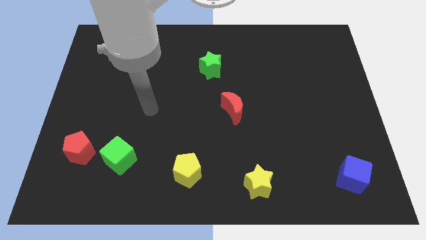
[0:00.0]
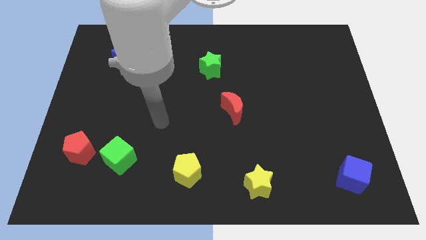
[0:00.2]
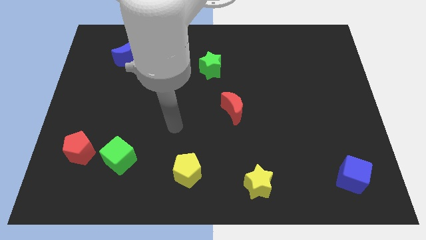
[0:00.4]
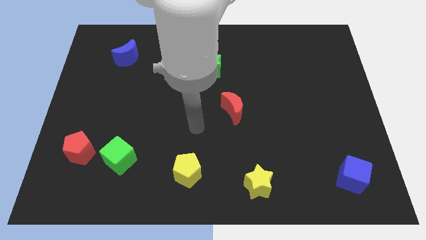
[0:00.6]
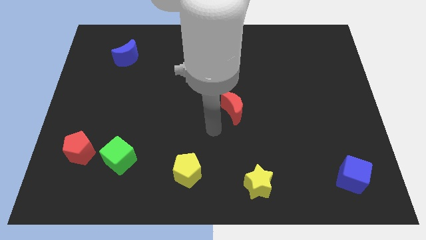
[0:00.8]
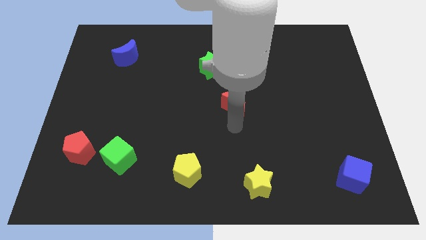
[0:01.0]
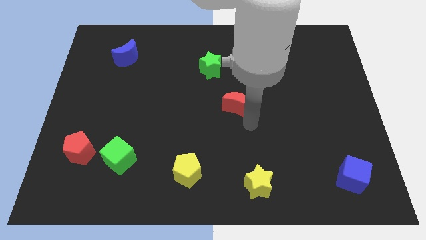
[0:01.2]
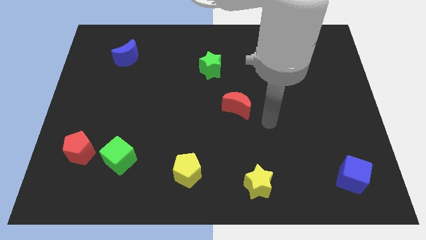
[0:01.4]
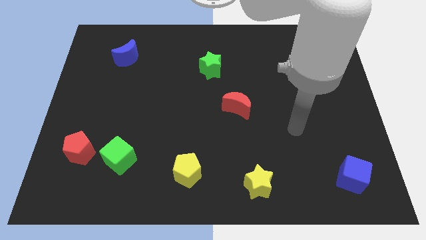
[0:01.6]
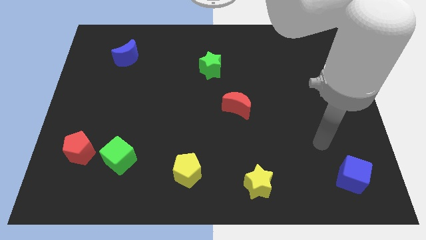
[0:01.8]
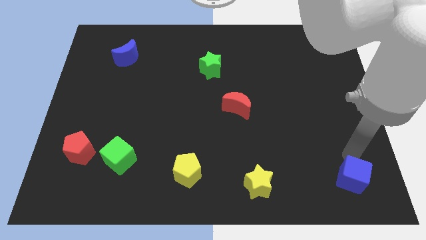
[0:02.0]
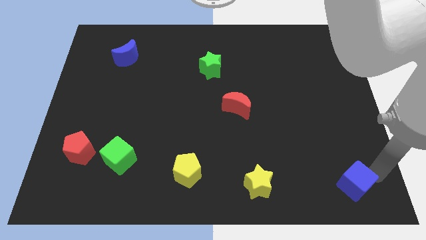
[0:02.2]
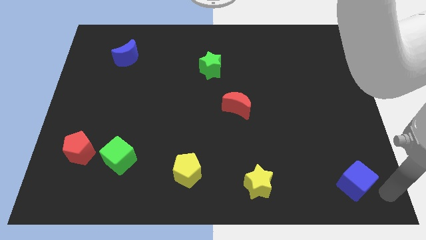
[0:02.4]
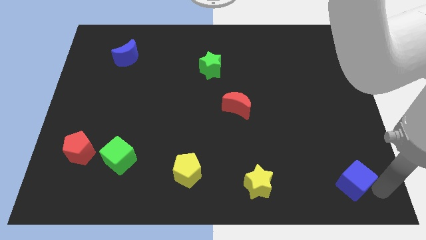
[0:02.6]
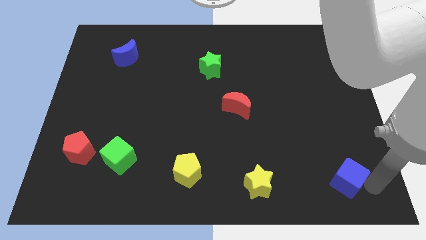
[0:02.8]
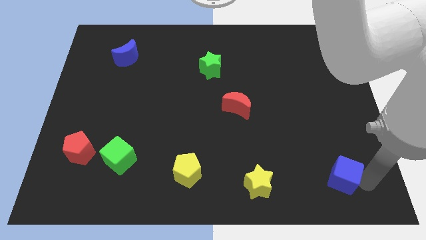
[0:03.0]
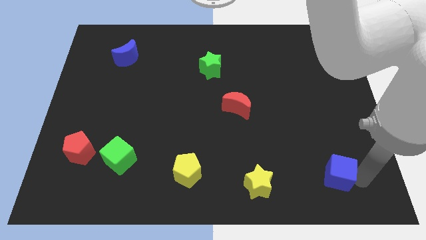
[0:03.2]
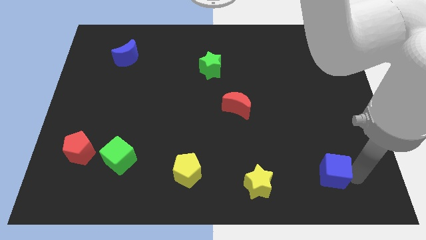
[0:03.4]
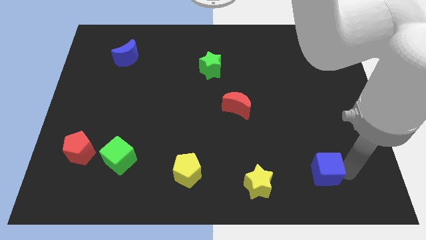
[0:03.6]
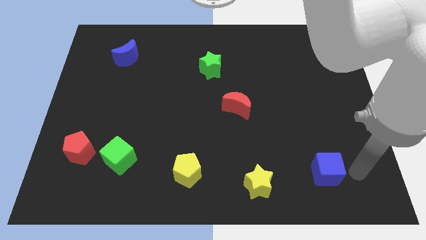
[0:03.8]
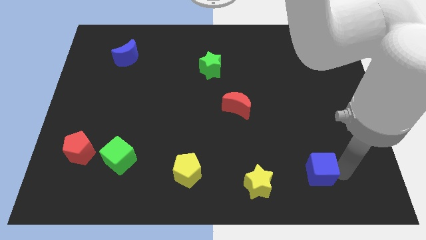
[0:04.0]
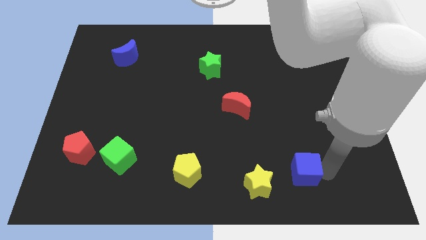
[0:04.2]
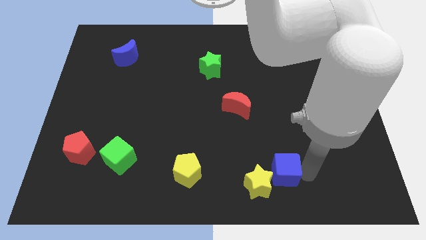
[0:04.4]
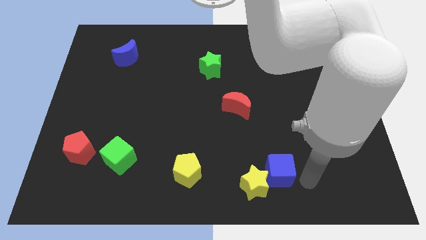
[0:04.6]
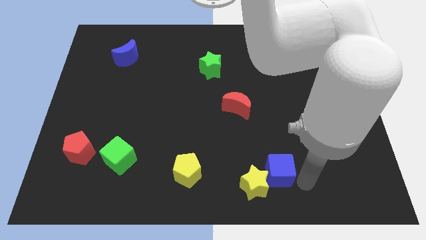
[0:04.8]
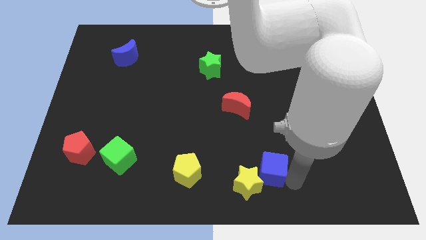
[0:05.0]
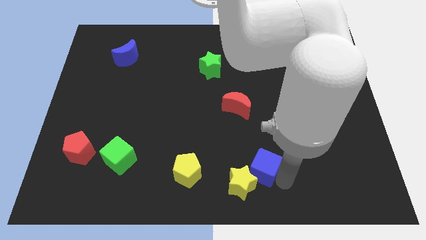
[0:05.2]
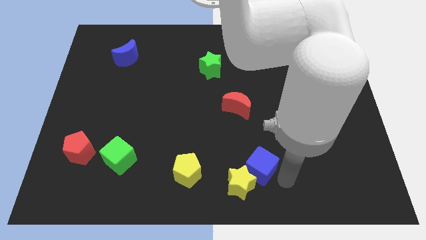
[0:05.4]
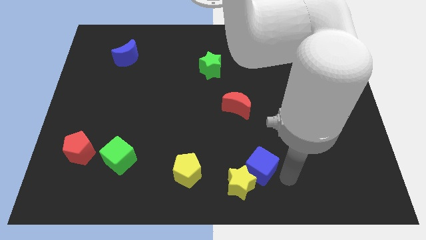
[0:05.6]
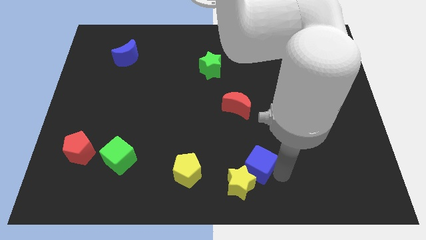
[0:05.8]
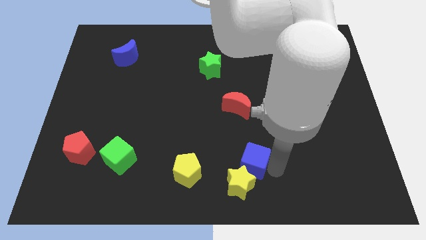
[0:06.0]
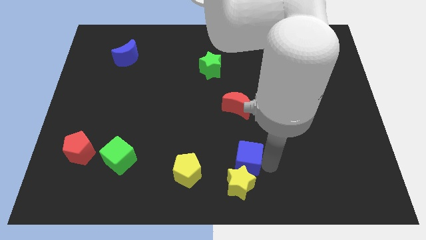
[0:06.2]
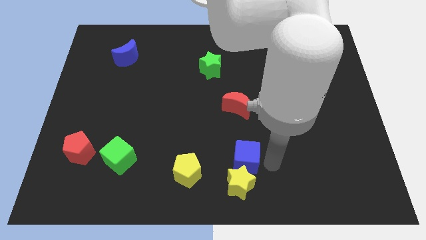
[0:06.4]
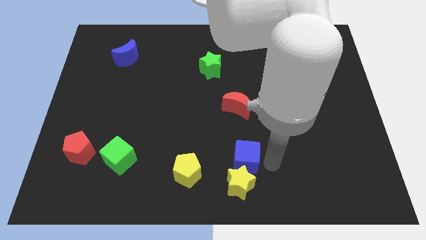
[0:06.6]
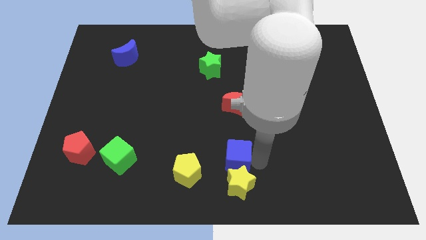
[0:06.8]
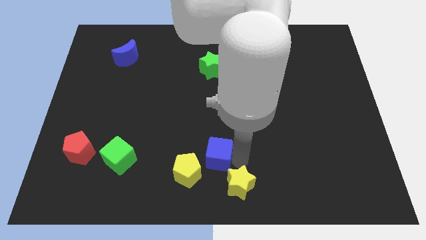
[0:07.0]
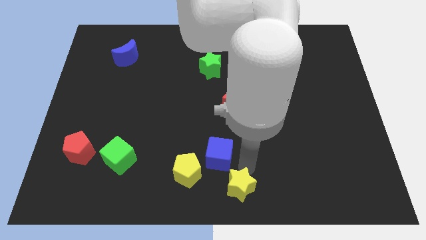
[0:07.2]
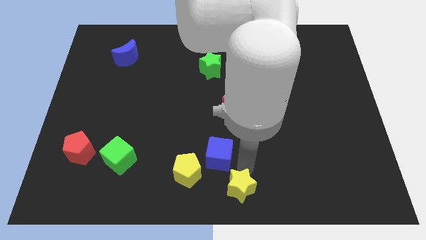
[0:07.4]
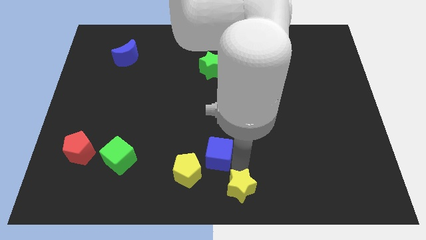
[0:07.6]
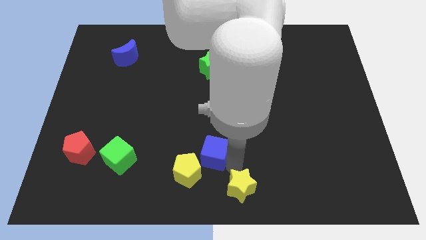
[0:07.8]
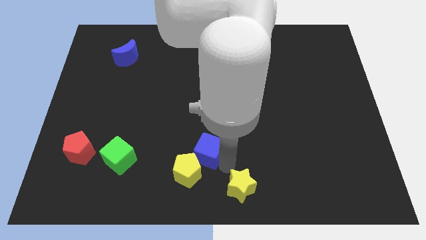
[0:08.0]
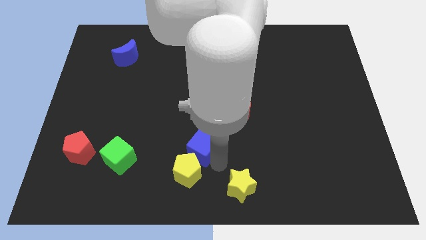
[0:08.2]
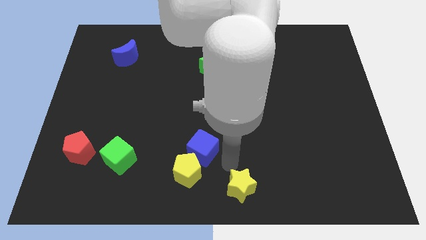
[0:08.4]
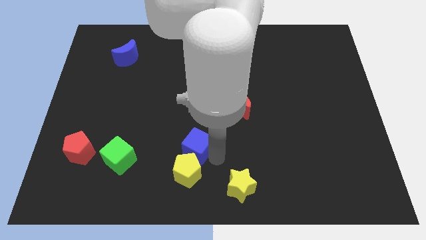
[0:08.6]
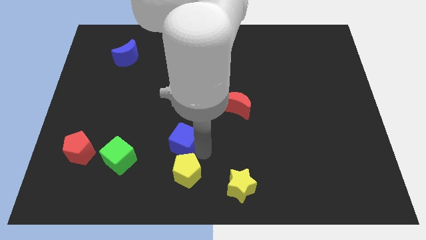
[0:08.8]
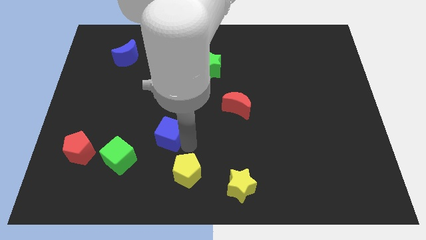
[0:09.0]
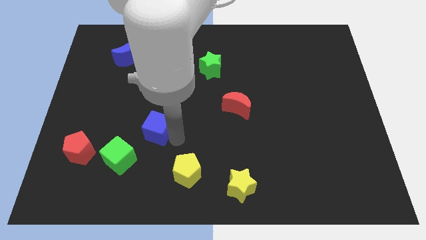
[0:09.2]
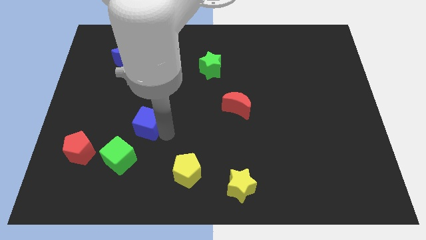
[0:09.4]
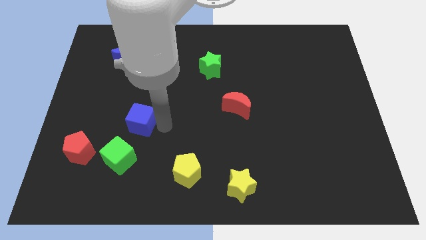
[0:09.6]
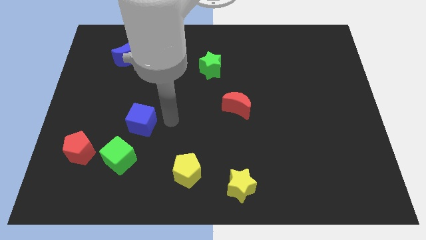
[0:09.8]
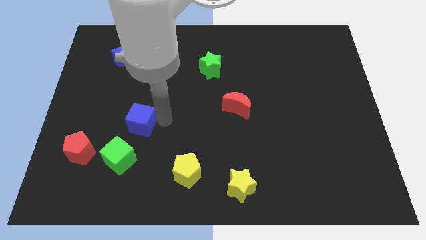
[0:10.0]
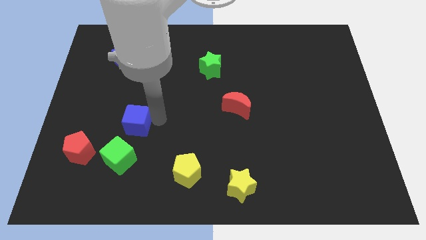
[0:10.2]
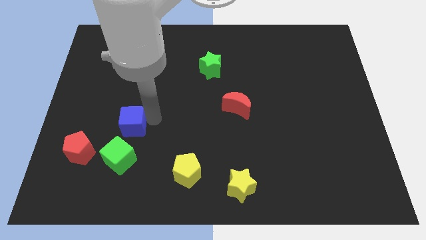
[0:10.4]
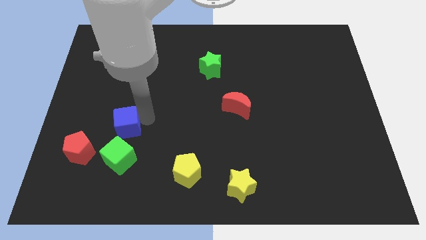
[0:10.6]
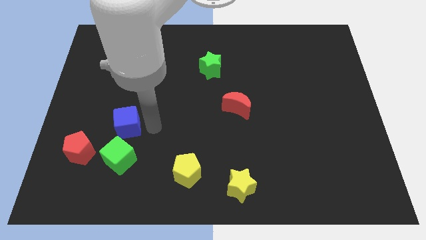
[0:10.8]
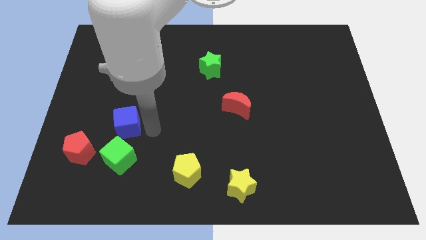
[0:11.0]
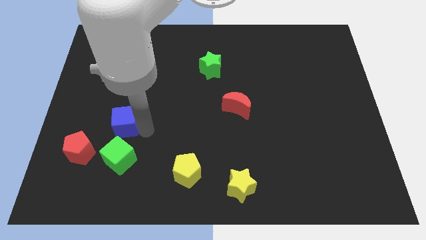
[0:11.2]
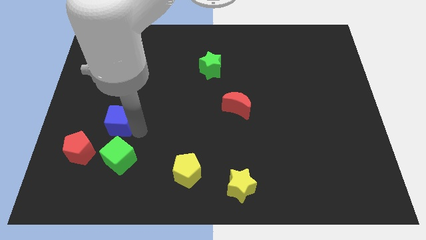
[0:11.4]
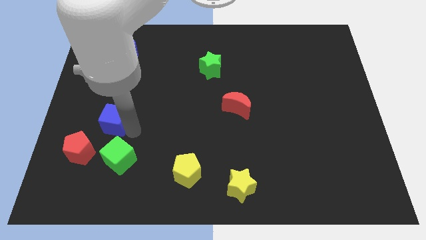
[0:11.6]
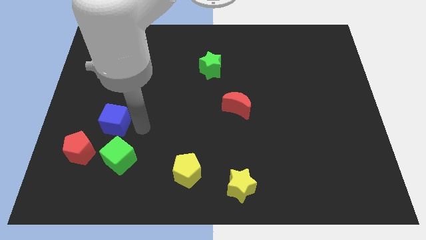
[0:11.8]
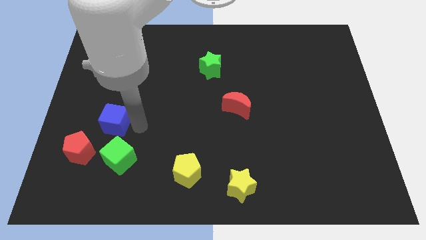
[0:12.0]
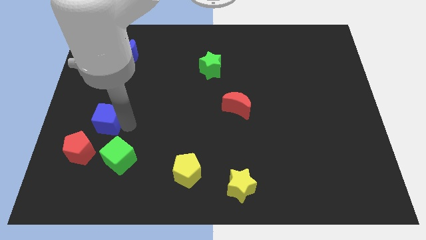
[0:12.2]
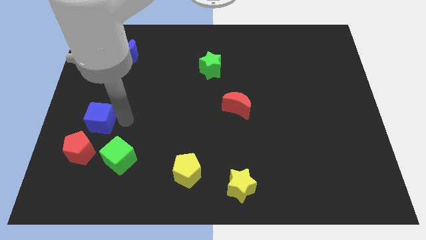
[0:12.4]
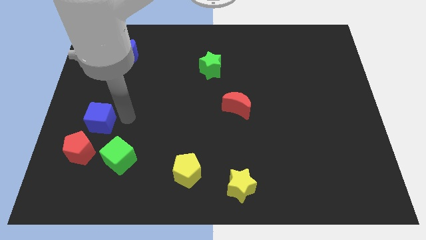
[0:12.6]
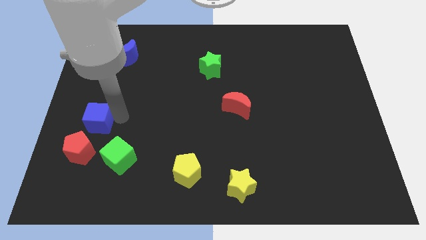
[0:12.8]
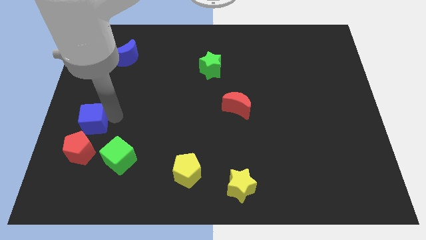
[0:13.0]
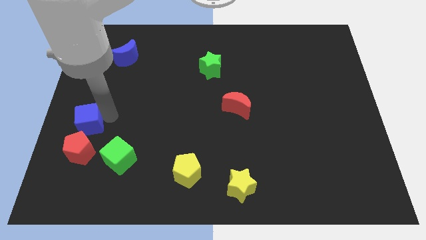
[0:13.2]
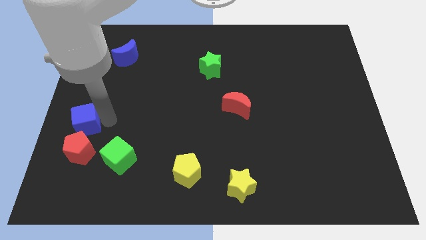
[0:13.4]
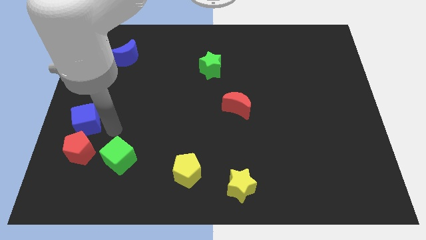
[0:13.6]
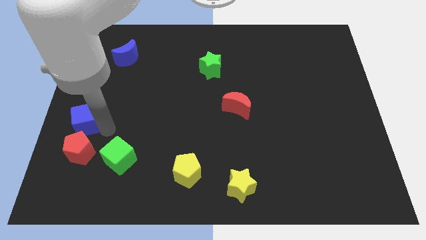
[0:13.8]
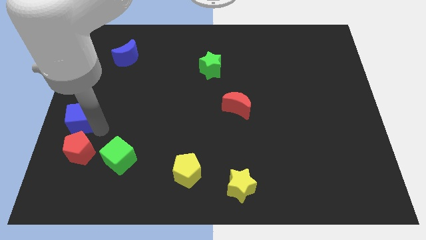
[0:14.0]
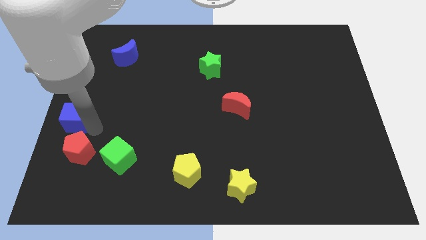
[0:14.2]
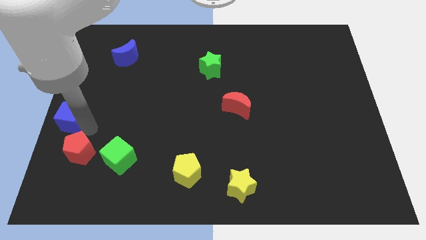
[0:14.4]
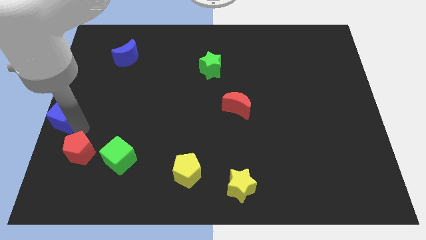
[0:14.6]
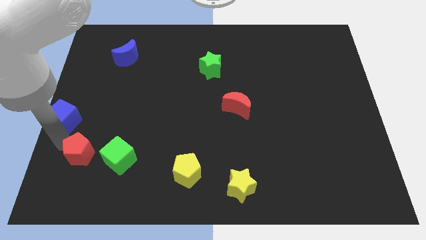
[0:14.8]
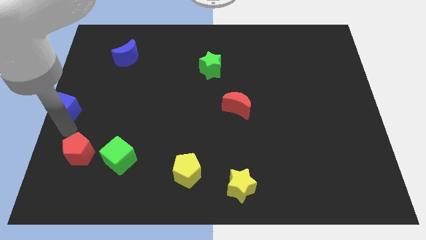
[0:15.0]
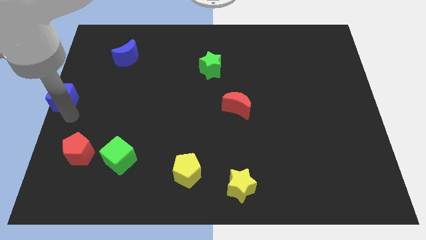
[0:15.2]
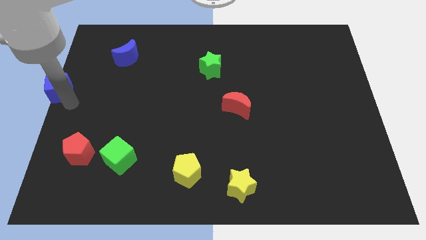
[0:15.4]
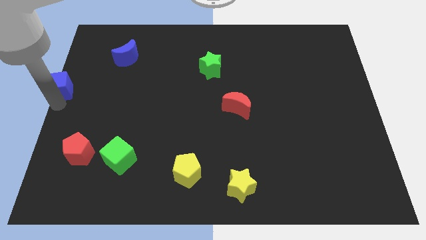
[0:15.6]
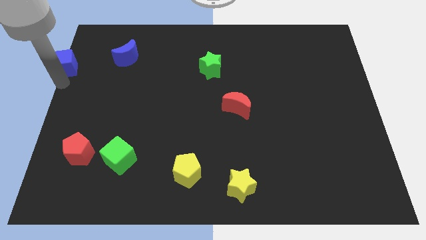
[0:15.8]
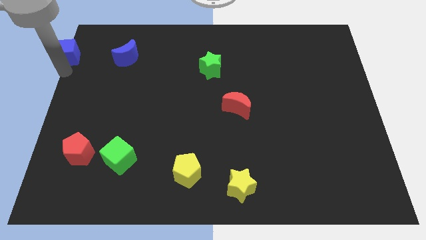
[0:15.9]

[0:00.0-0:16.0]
put the blue cube to the top left
